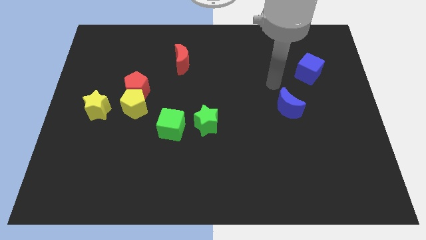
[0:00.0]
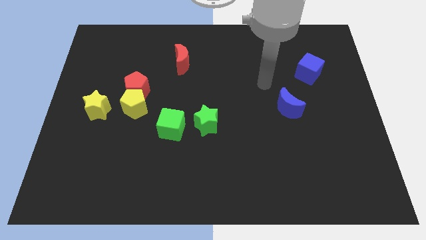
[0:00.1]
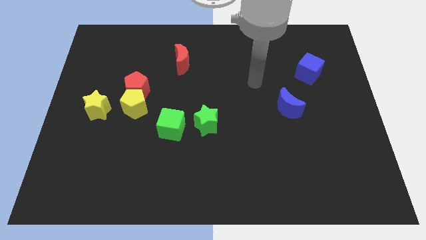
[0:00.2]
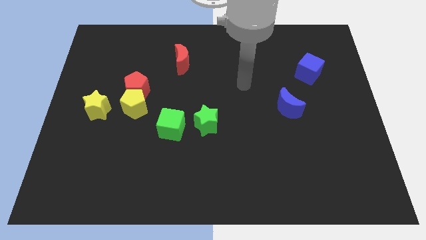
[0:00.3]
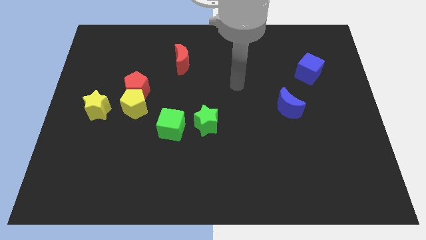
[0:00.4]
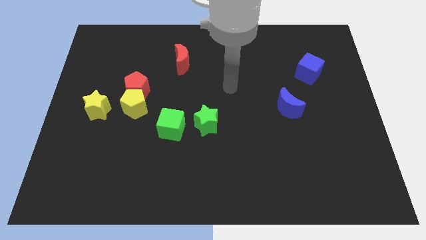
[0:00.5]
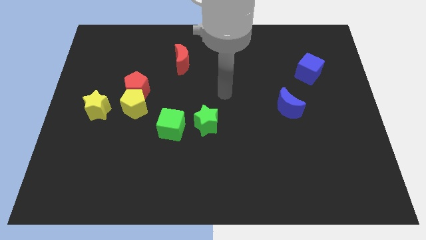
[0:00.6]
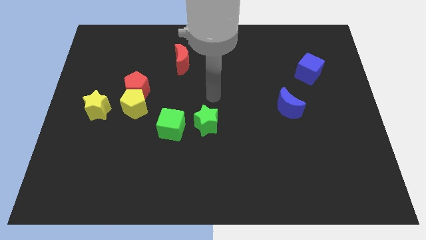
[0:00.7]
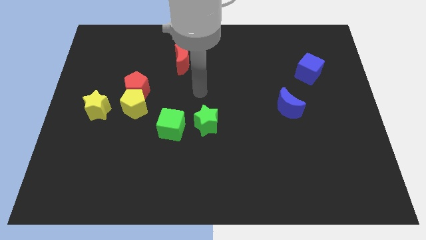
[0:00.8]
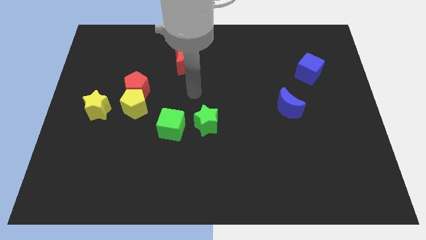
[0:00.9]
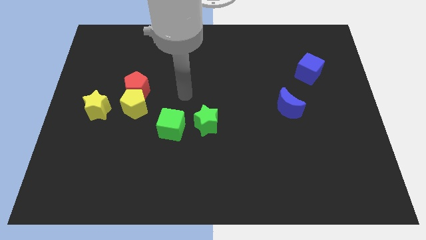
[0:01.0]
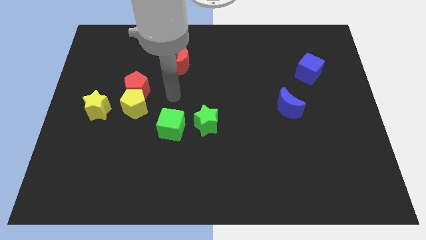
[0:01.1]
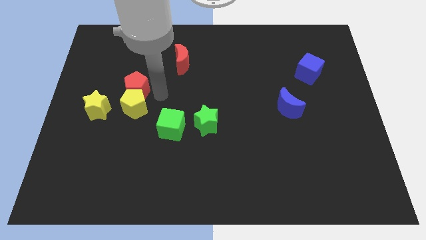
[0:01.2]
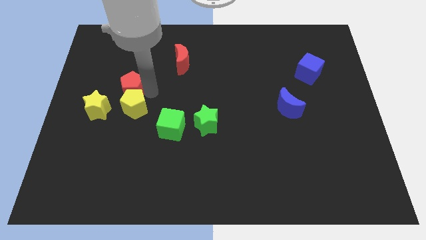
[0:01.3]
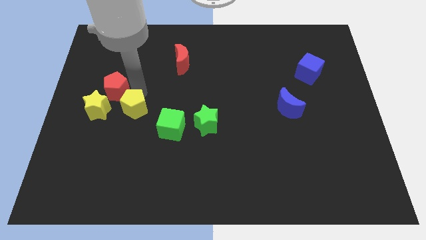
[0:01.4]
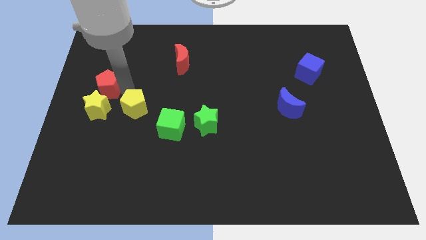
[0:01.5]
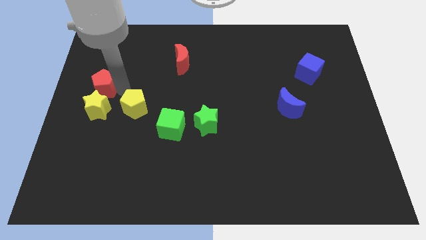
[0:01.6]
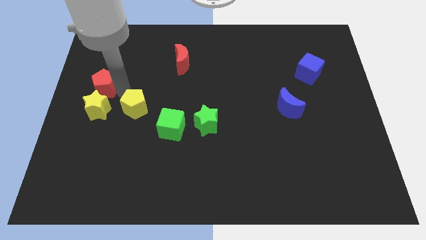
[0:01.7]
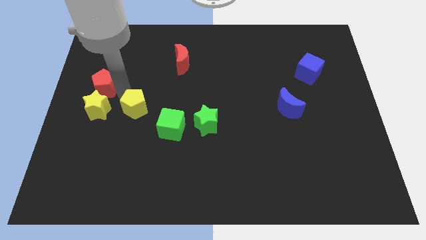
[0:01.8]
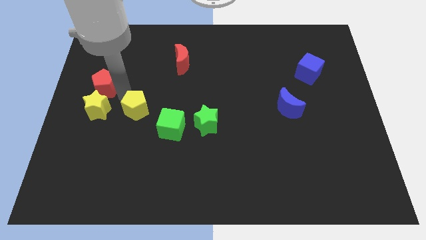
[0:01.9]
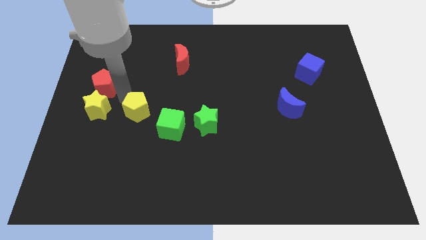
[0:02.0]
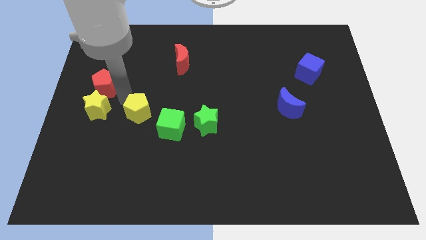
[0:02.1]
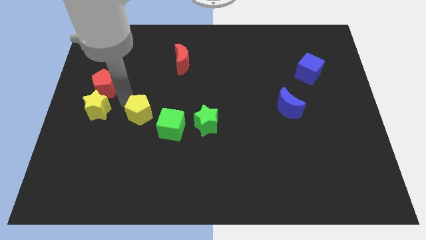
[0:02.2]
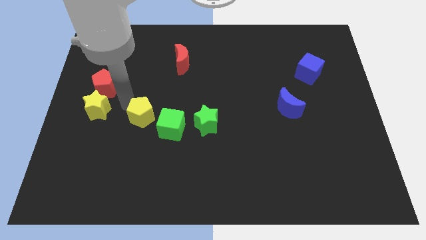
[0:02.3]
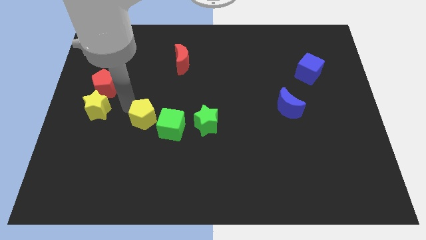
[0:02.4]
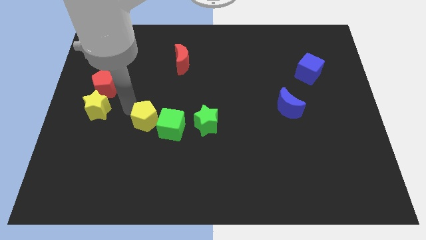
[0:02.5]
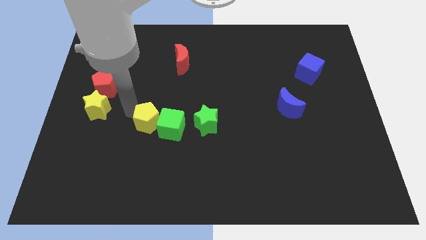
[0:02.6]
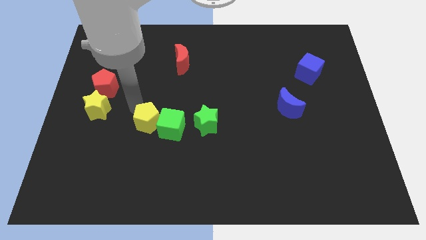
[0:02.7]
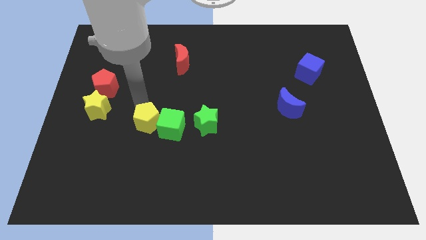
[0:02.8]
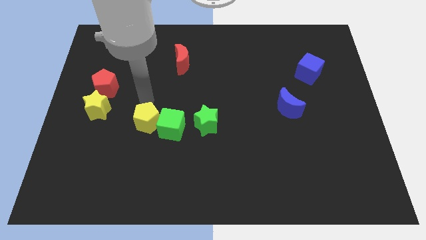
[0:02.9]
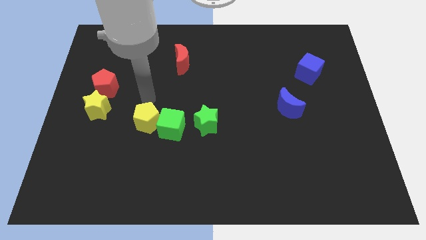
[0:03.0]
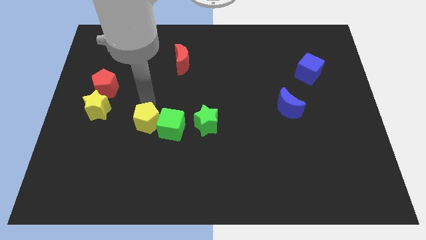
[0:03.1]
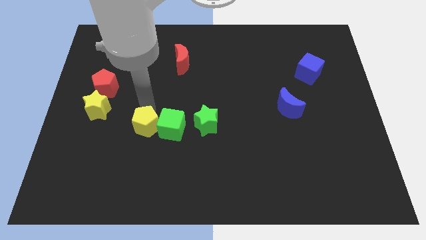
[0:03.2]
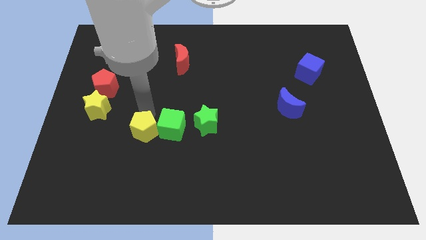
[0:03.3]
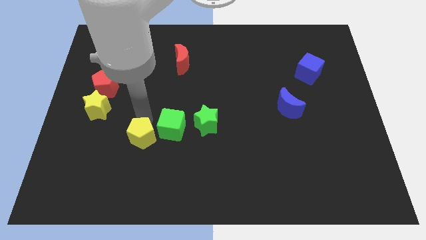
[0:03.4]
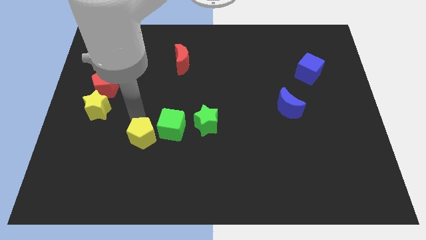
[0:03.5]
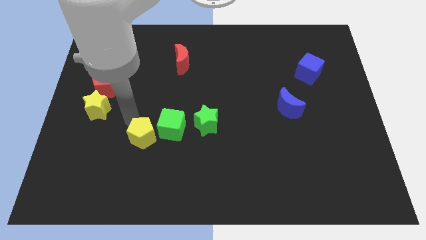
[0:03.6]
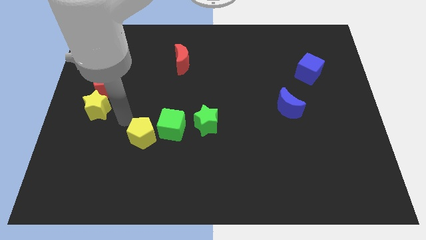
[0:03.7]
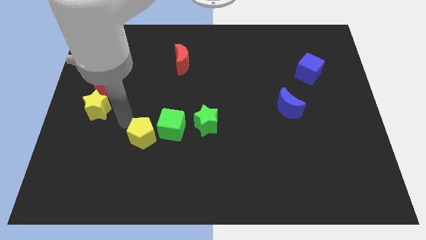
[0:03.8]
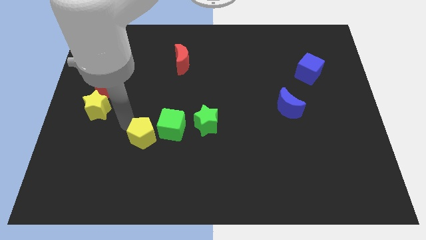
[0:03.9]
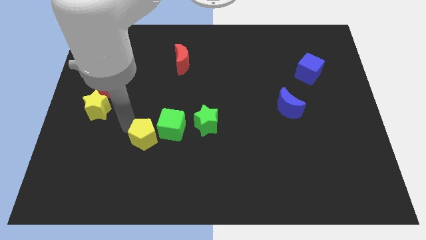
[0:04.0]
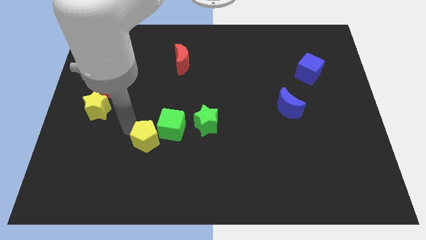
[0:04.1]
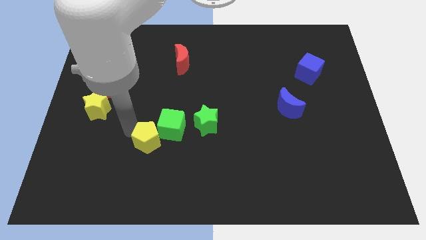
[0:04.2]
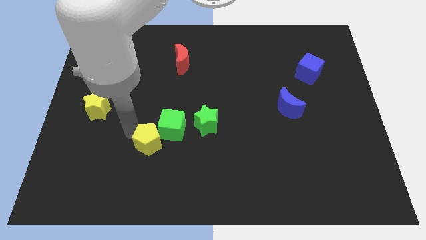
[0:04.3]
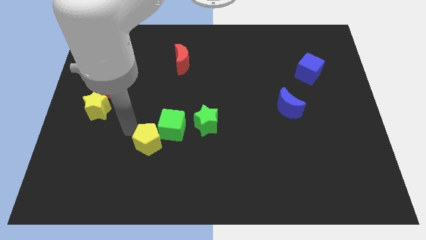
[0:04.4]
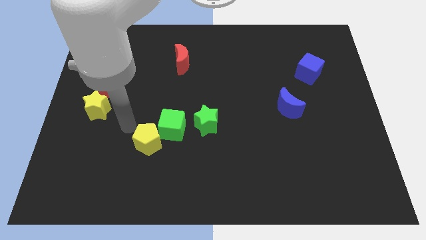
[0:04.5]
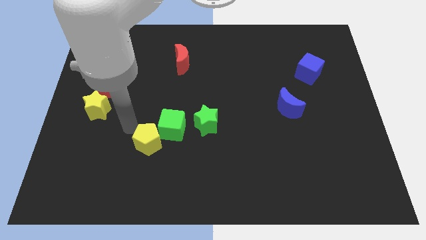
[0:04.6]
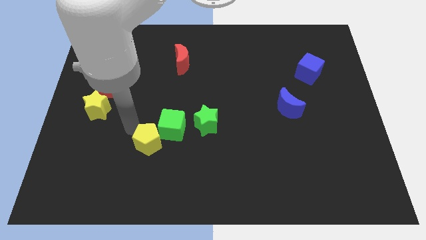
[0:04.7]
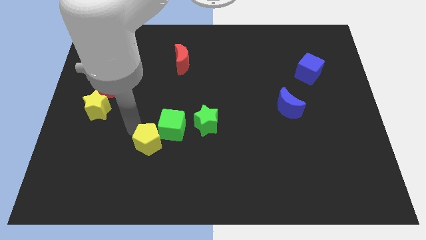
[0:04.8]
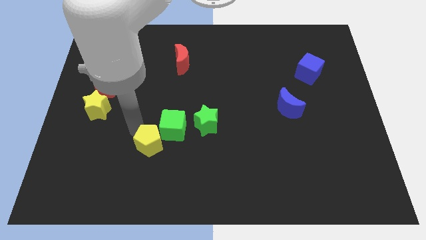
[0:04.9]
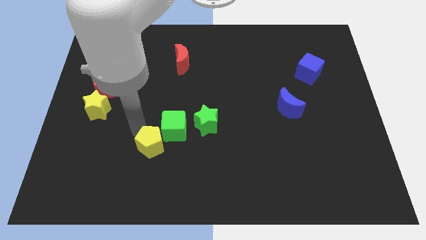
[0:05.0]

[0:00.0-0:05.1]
slide the yellow pentagon to the bottom side of the green cube

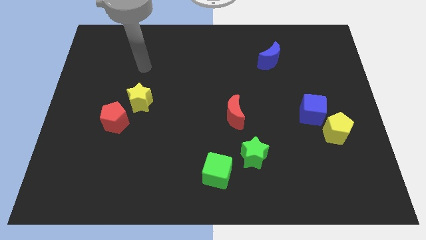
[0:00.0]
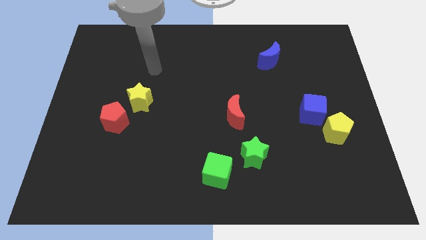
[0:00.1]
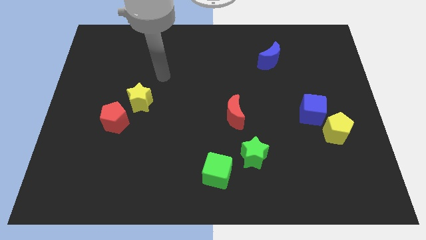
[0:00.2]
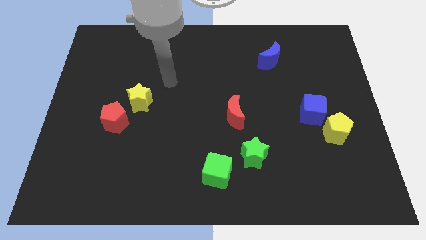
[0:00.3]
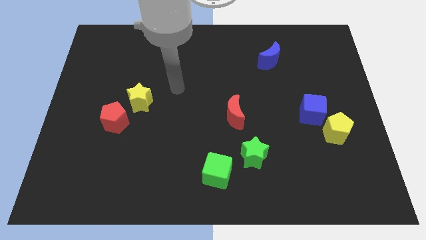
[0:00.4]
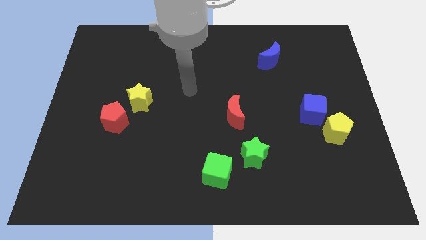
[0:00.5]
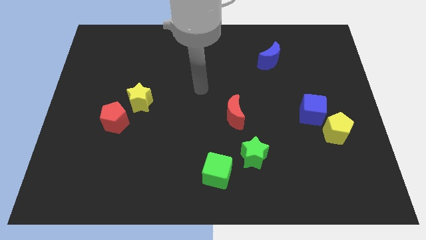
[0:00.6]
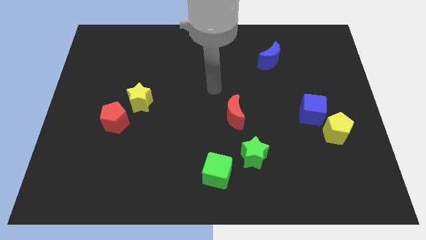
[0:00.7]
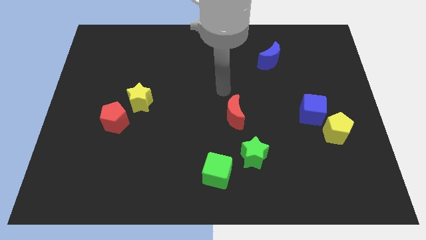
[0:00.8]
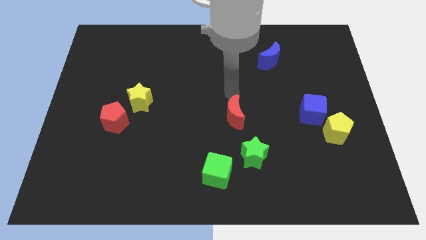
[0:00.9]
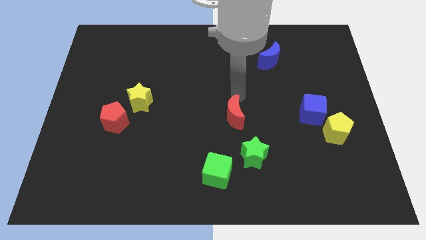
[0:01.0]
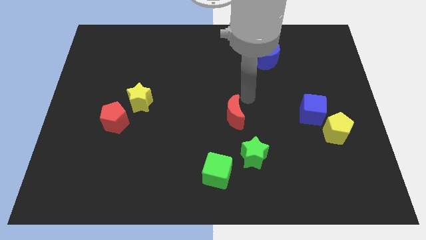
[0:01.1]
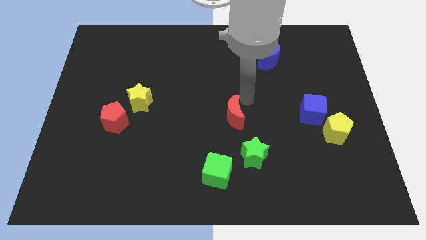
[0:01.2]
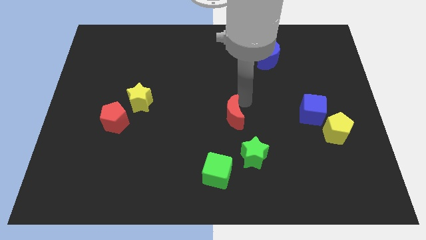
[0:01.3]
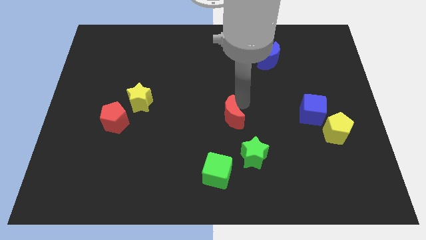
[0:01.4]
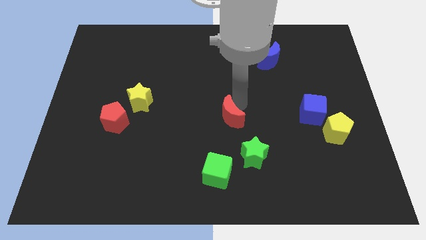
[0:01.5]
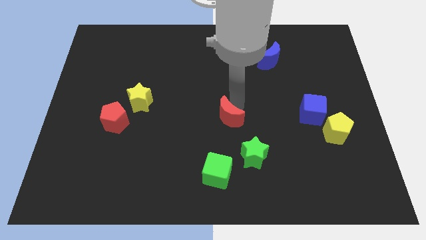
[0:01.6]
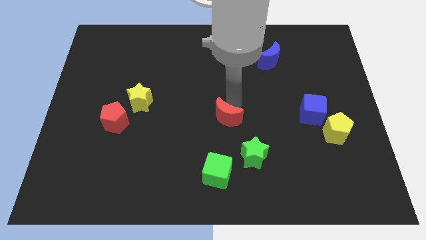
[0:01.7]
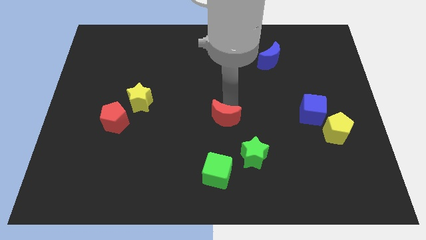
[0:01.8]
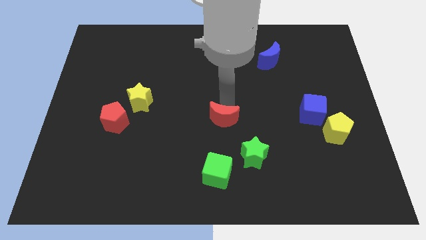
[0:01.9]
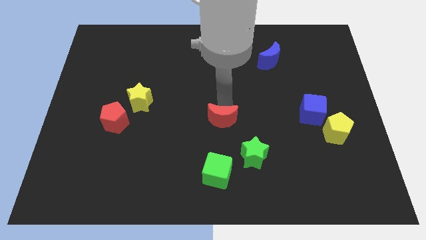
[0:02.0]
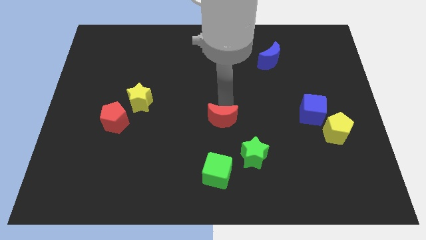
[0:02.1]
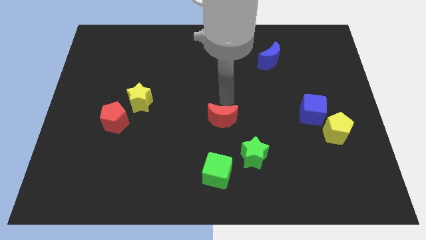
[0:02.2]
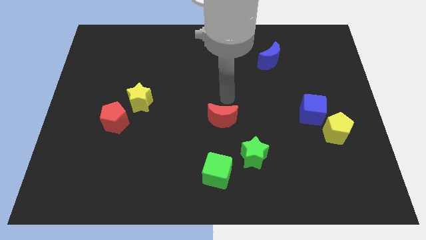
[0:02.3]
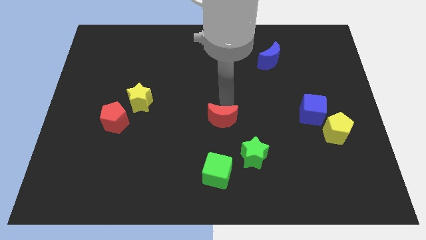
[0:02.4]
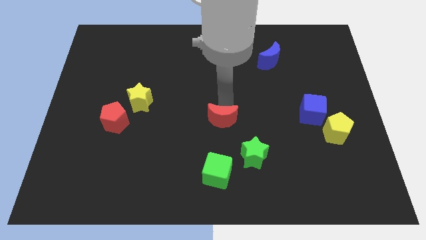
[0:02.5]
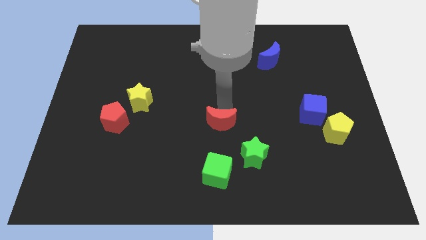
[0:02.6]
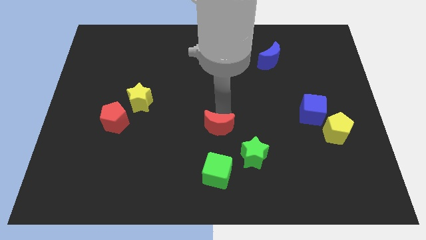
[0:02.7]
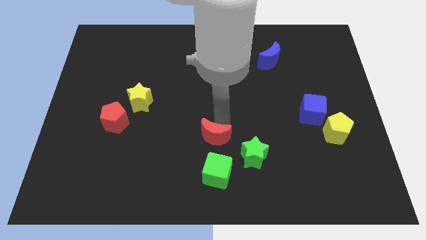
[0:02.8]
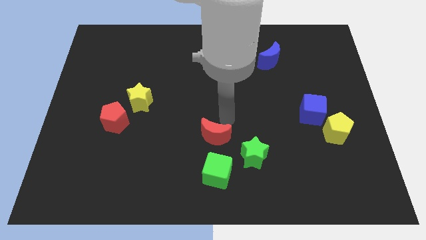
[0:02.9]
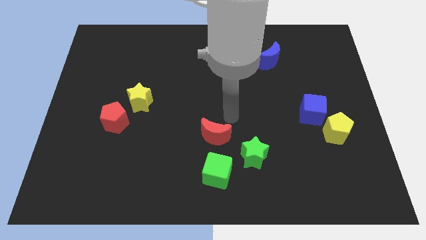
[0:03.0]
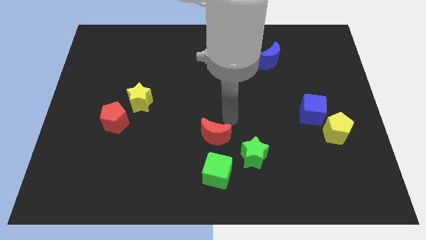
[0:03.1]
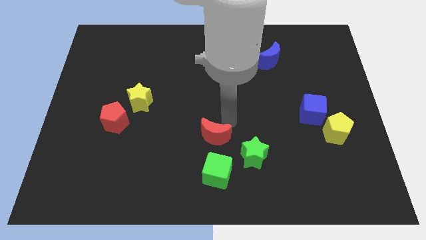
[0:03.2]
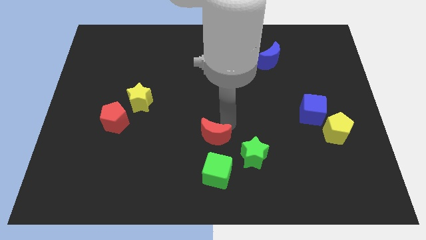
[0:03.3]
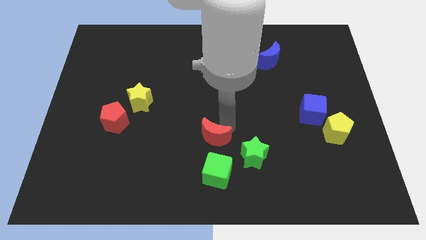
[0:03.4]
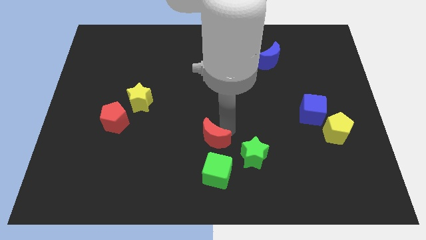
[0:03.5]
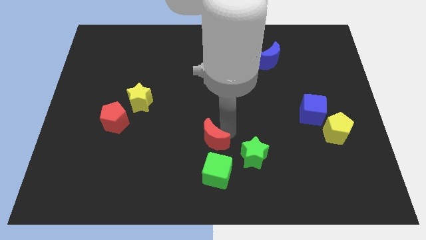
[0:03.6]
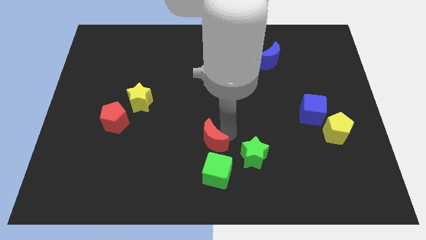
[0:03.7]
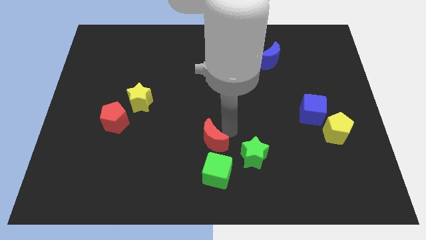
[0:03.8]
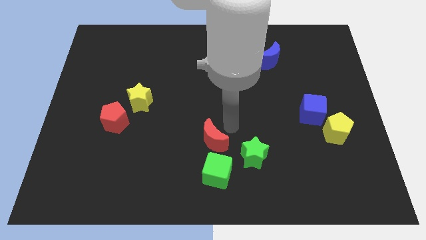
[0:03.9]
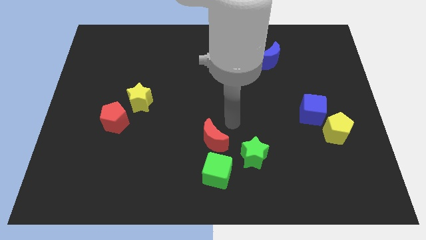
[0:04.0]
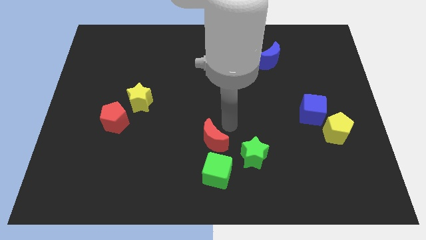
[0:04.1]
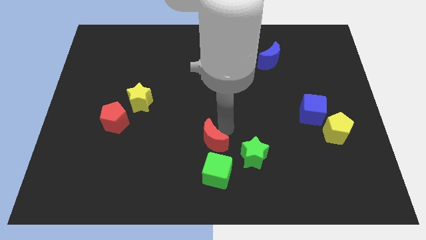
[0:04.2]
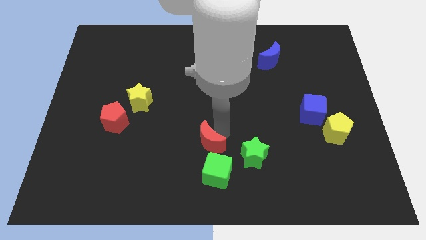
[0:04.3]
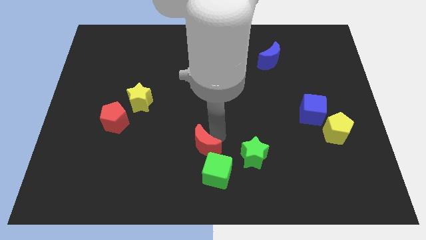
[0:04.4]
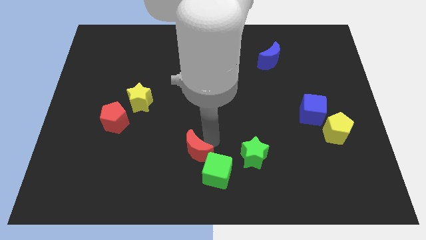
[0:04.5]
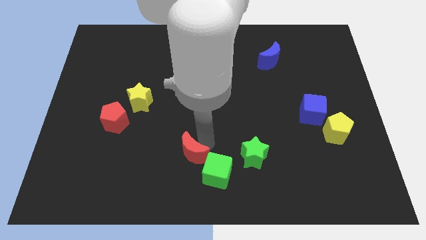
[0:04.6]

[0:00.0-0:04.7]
slide the red moon left of the green cube
